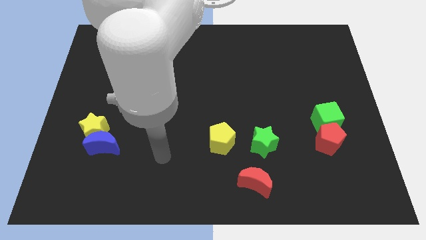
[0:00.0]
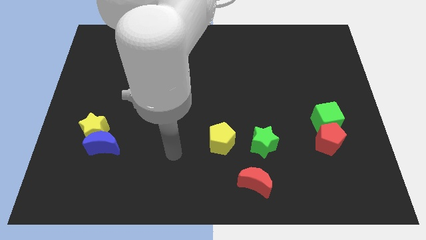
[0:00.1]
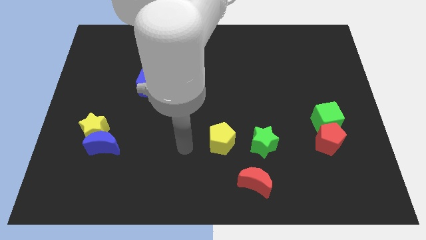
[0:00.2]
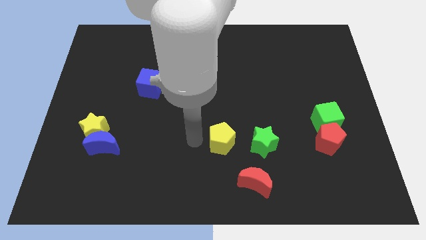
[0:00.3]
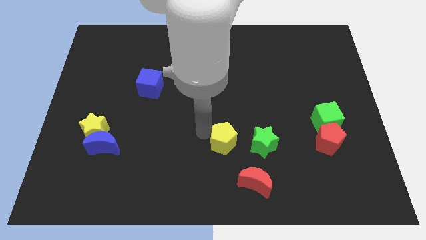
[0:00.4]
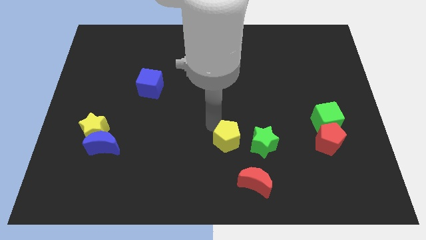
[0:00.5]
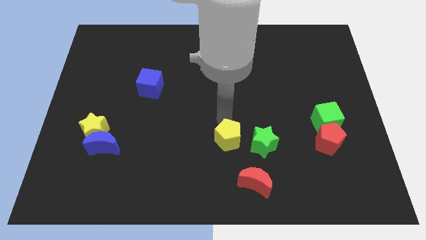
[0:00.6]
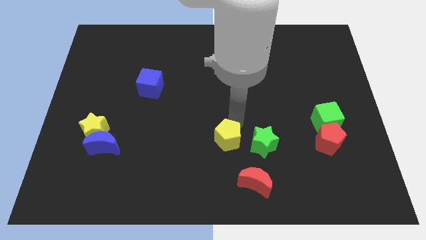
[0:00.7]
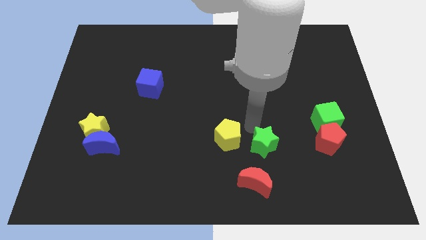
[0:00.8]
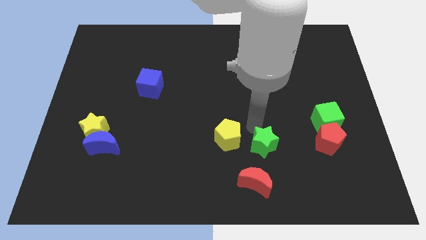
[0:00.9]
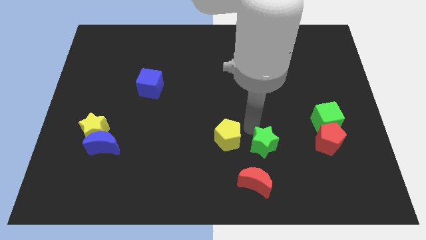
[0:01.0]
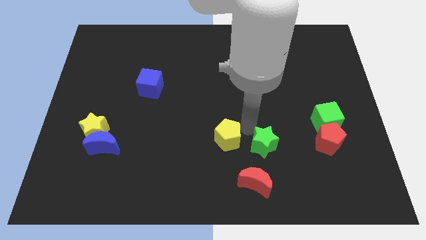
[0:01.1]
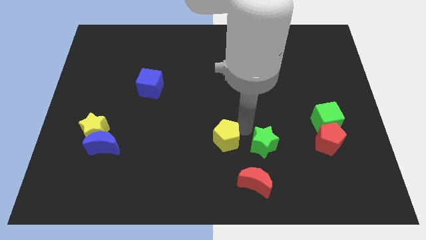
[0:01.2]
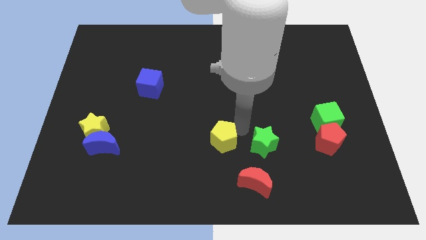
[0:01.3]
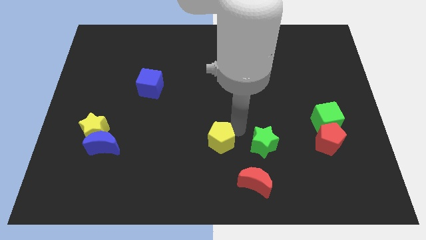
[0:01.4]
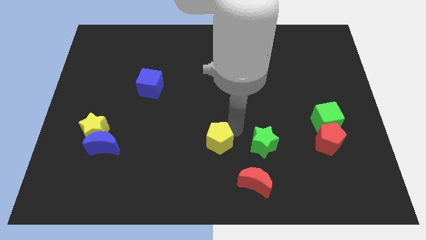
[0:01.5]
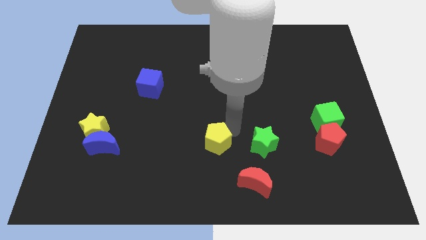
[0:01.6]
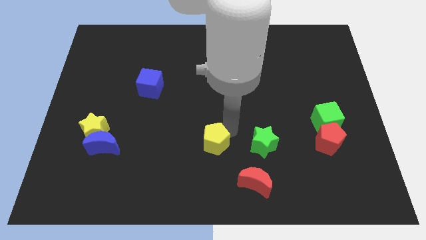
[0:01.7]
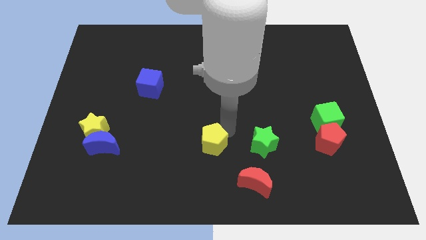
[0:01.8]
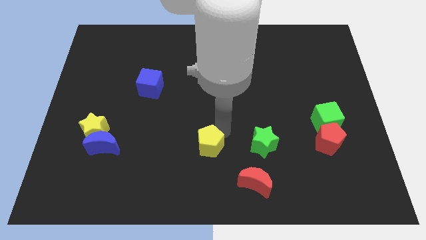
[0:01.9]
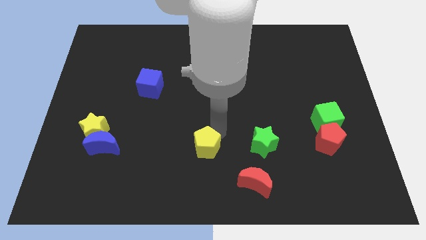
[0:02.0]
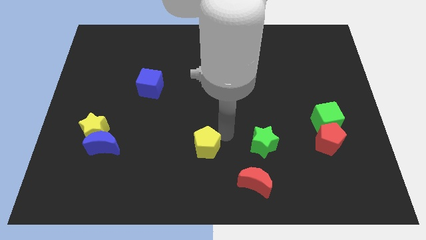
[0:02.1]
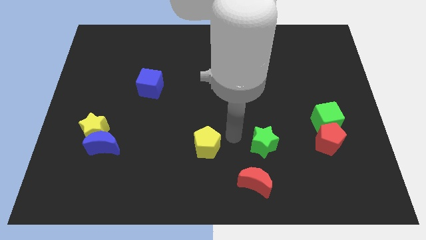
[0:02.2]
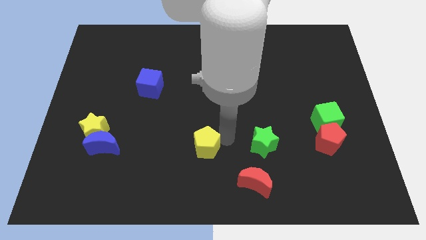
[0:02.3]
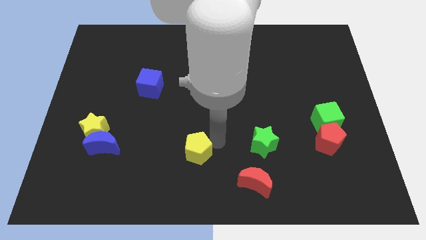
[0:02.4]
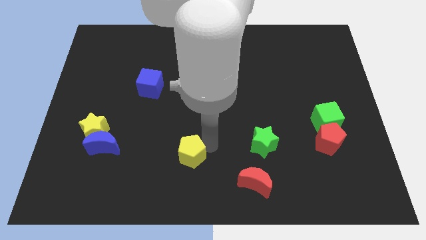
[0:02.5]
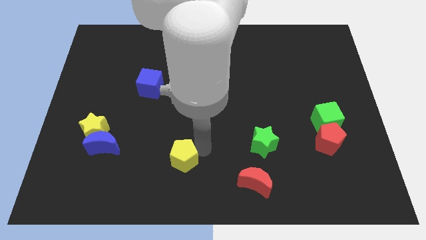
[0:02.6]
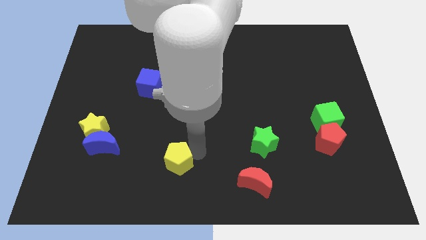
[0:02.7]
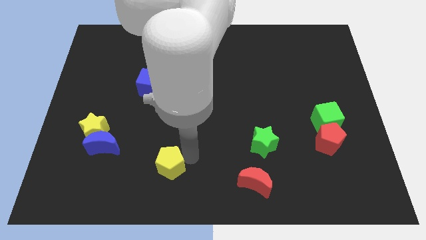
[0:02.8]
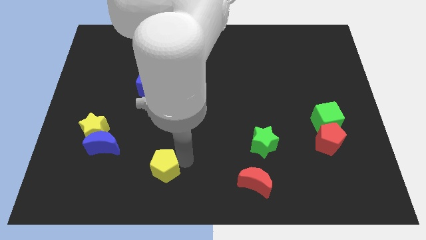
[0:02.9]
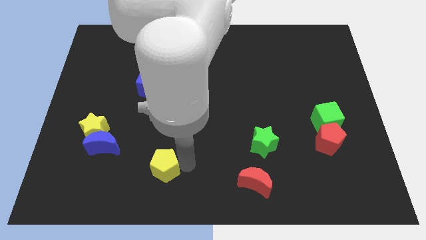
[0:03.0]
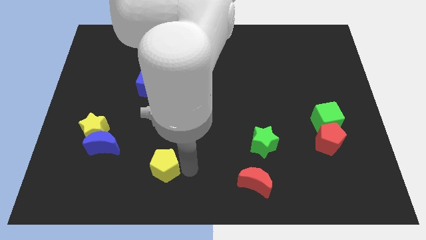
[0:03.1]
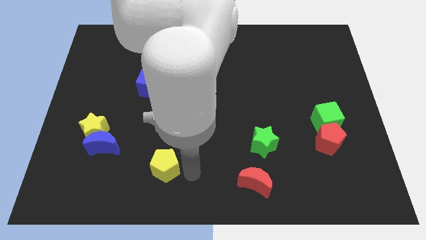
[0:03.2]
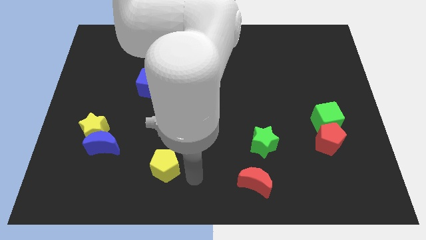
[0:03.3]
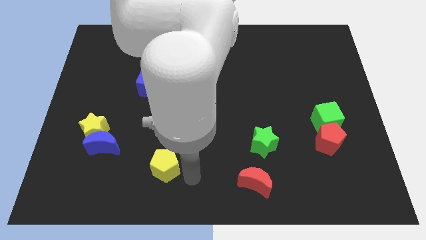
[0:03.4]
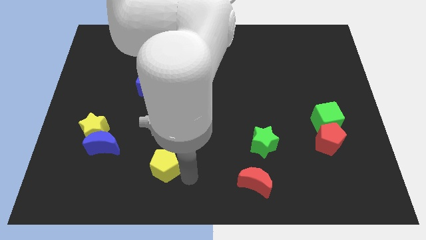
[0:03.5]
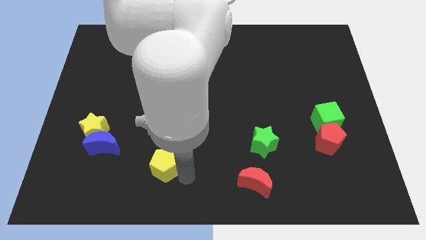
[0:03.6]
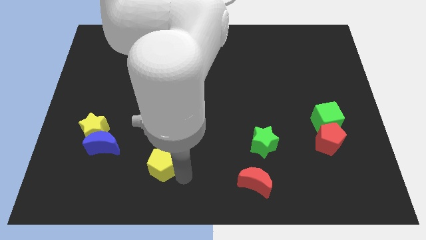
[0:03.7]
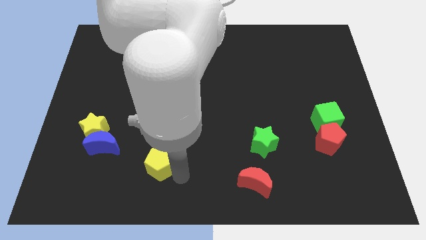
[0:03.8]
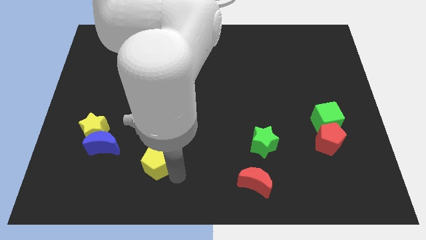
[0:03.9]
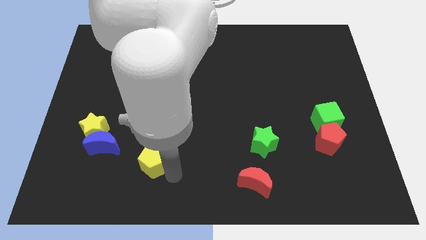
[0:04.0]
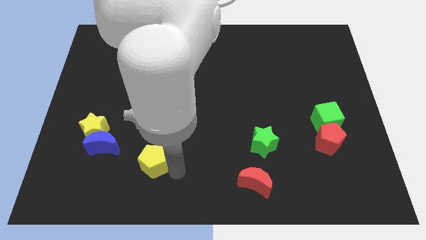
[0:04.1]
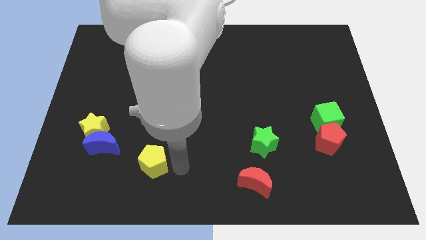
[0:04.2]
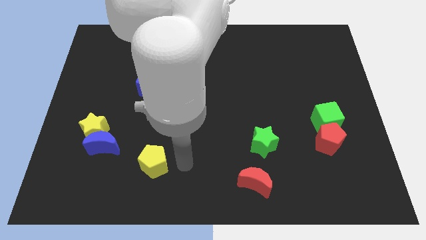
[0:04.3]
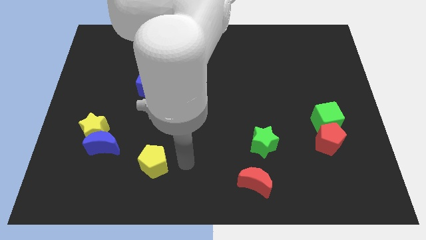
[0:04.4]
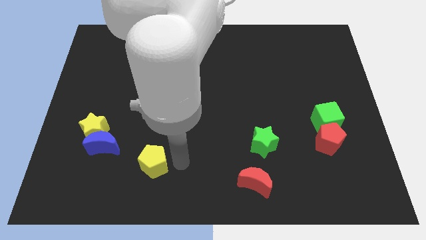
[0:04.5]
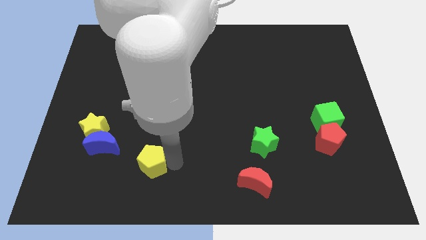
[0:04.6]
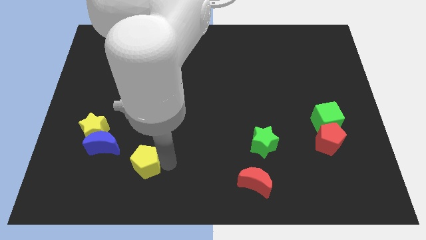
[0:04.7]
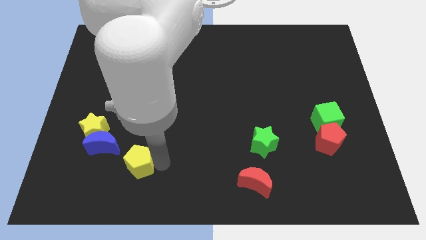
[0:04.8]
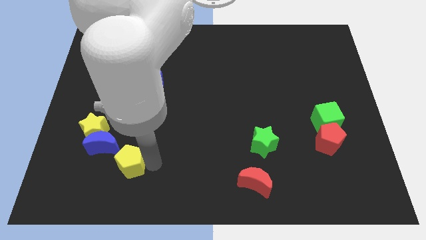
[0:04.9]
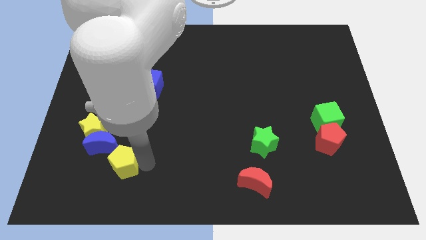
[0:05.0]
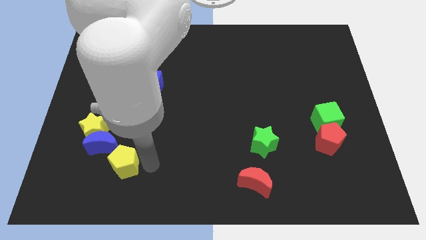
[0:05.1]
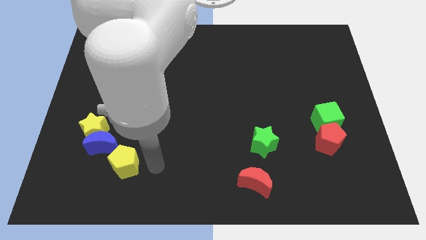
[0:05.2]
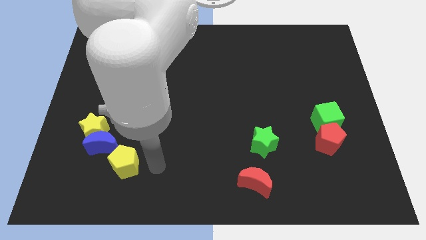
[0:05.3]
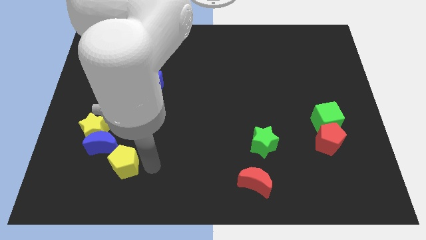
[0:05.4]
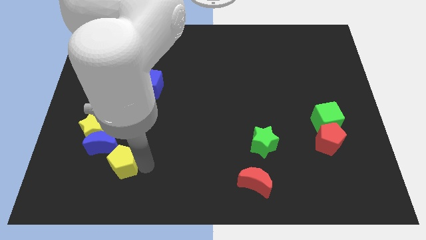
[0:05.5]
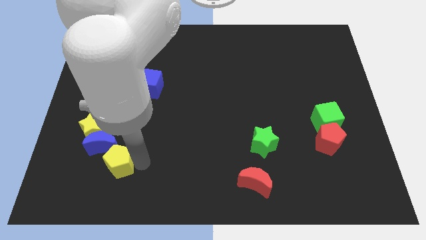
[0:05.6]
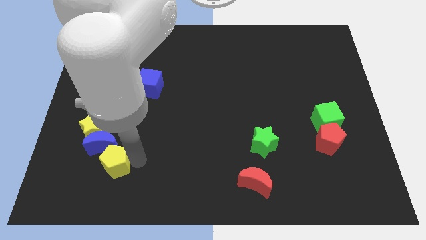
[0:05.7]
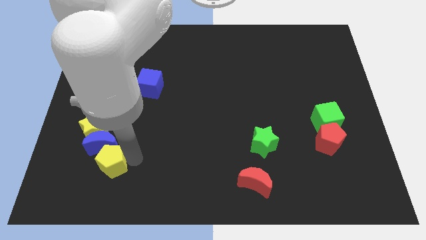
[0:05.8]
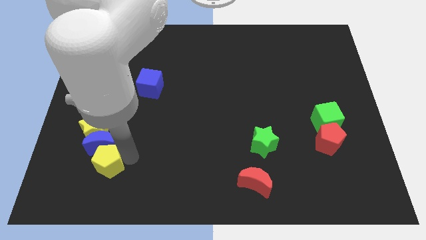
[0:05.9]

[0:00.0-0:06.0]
put the yellow pentagon to the bottom left side of the blue moon
